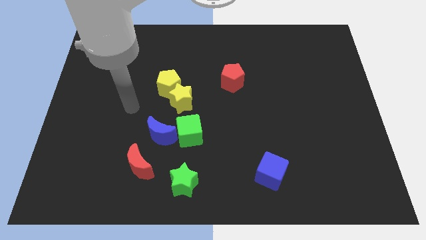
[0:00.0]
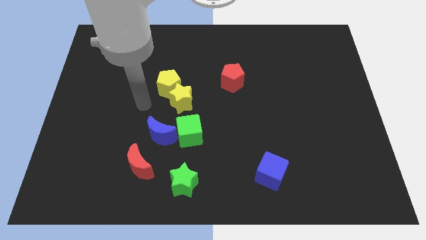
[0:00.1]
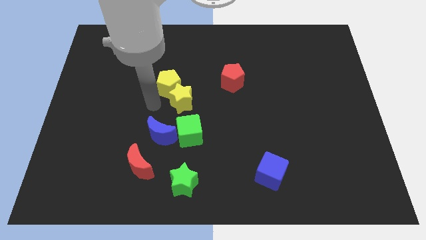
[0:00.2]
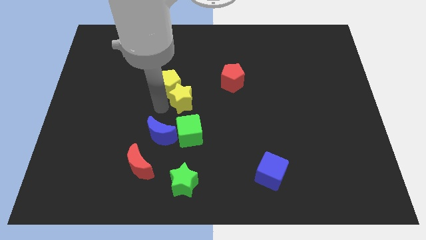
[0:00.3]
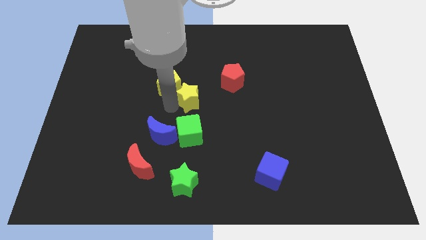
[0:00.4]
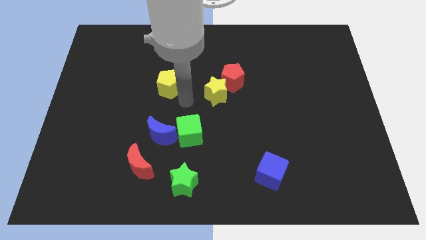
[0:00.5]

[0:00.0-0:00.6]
separate the yellow pentagon from the yellow star

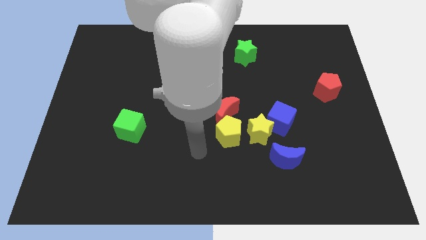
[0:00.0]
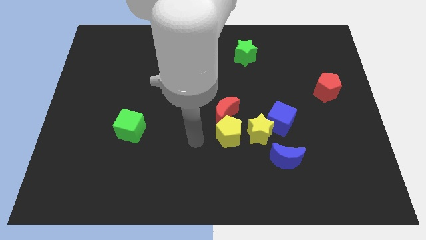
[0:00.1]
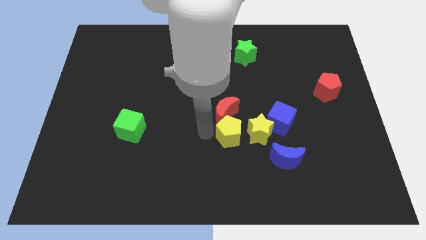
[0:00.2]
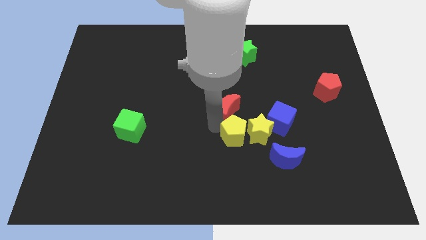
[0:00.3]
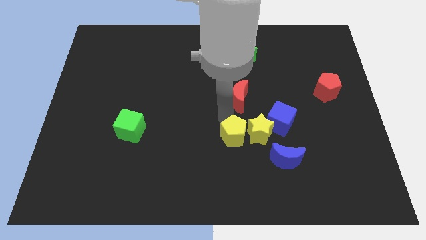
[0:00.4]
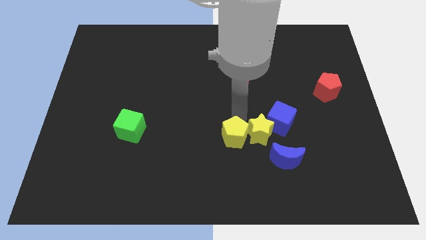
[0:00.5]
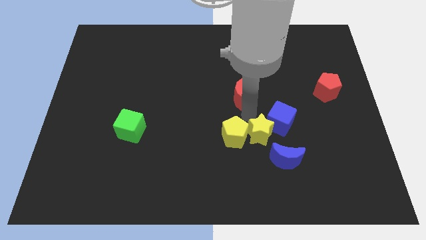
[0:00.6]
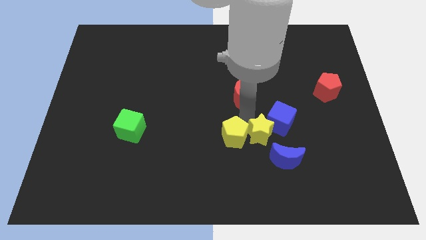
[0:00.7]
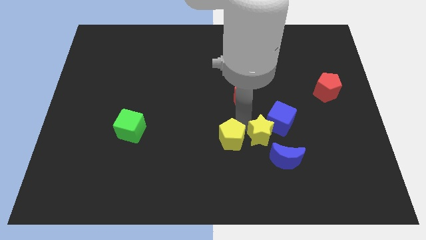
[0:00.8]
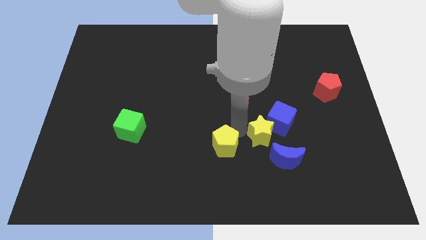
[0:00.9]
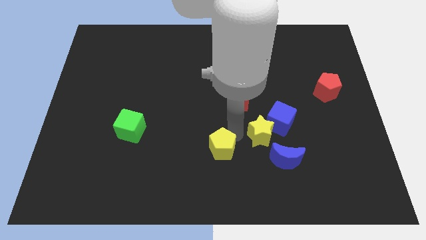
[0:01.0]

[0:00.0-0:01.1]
move the yellow pentagon away from the red moon and yellow star

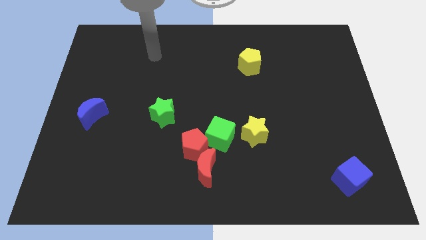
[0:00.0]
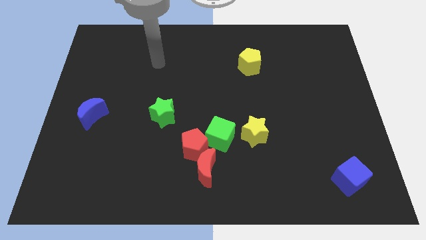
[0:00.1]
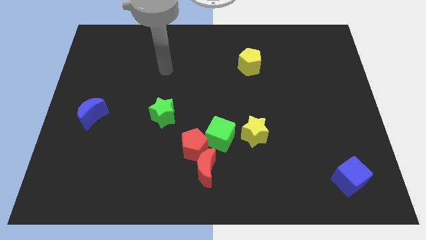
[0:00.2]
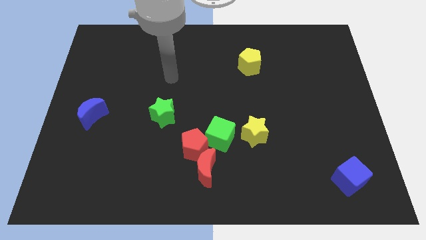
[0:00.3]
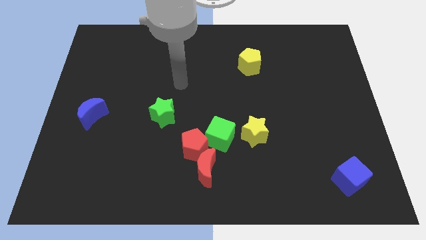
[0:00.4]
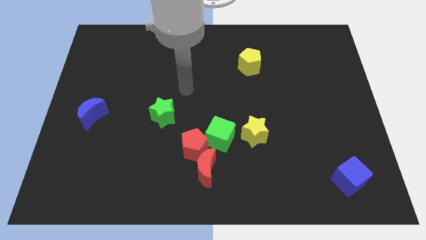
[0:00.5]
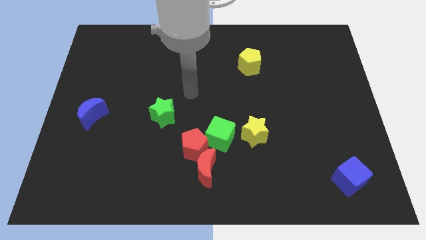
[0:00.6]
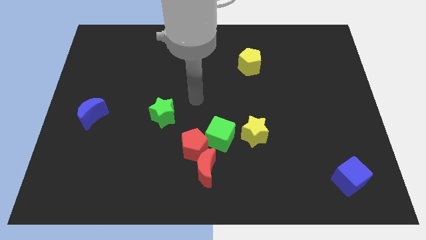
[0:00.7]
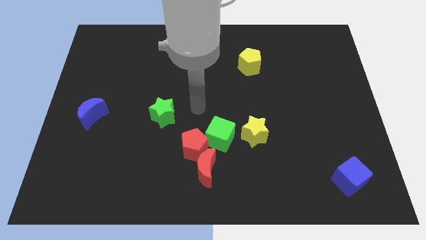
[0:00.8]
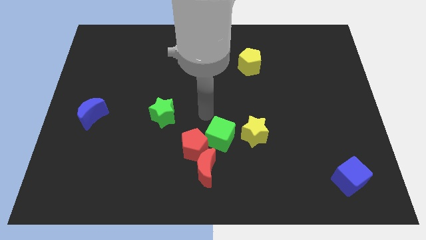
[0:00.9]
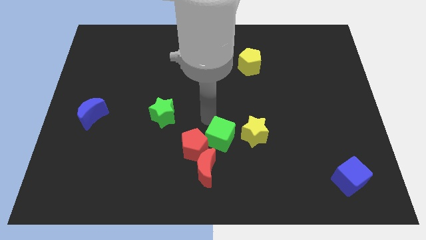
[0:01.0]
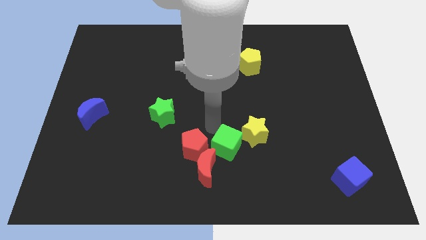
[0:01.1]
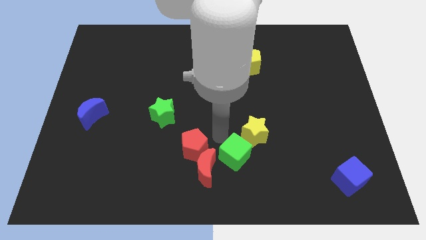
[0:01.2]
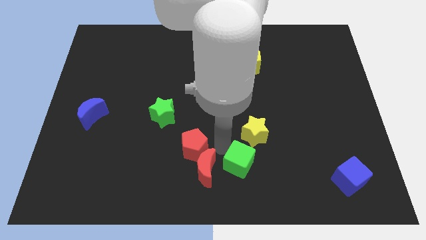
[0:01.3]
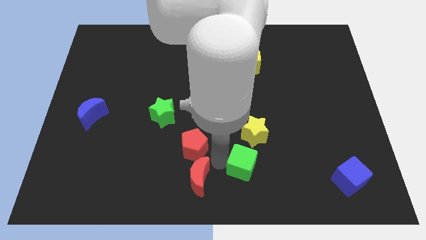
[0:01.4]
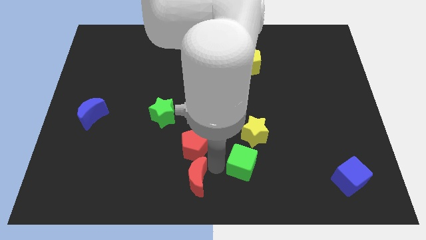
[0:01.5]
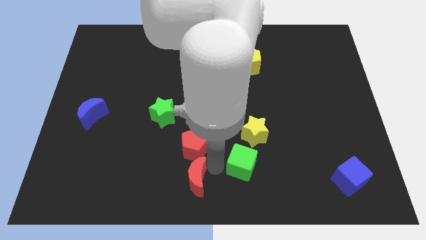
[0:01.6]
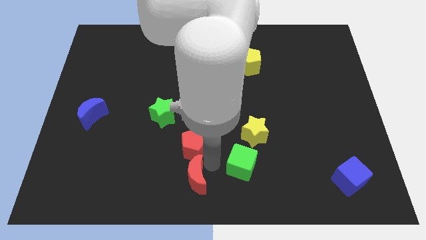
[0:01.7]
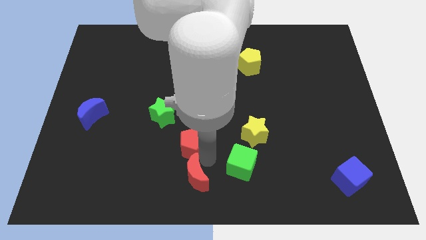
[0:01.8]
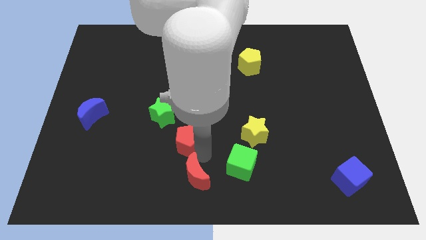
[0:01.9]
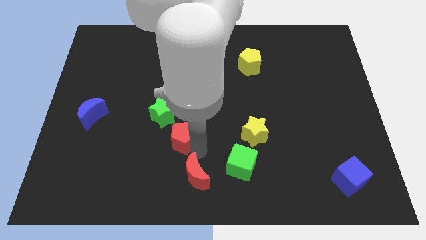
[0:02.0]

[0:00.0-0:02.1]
pull the red pentagon apart from the red moon and green cube

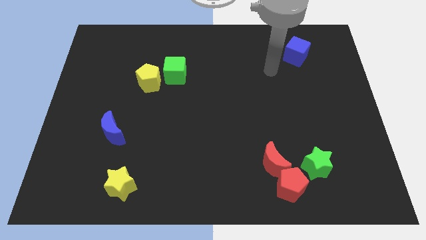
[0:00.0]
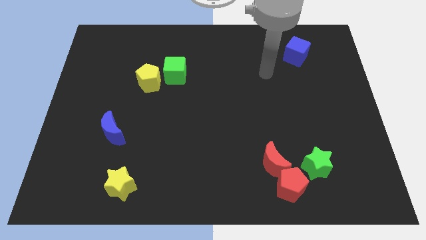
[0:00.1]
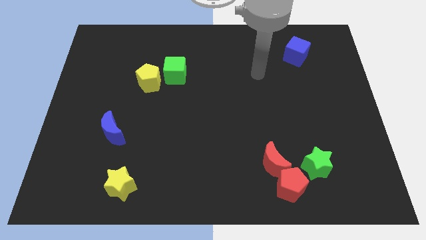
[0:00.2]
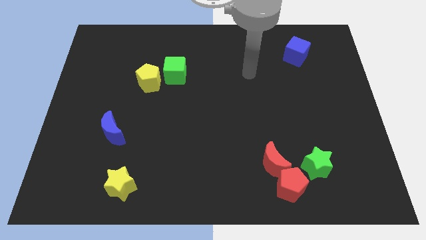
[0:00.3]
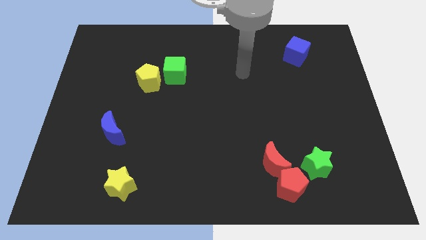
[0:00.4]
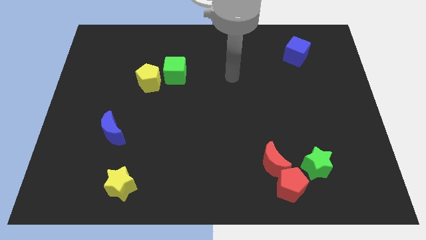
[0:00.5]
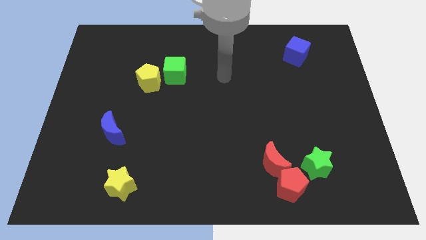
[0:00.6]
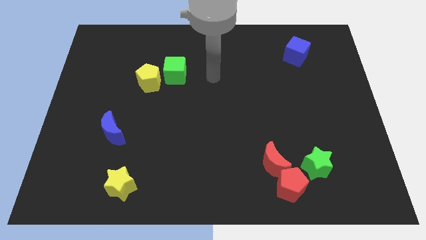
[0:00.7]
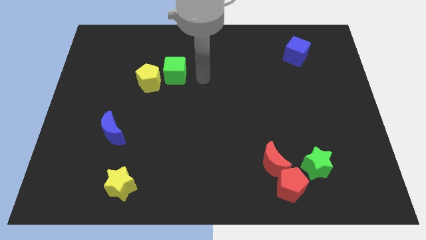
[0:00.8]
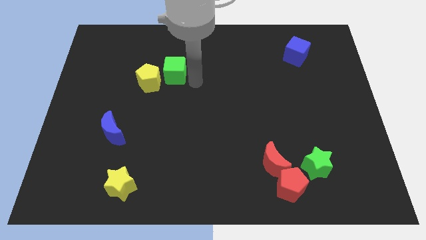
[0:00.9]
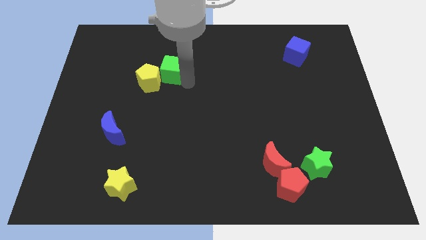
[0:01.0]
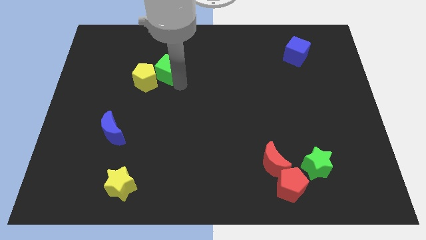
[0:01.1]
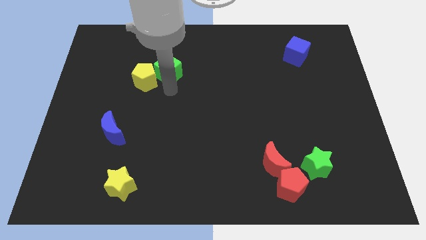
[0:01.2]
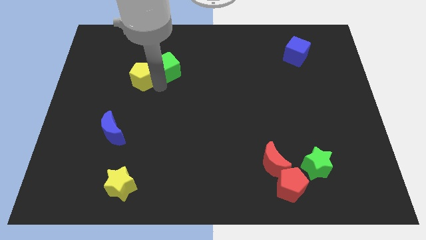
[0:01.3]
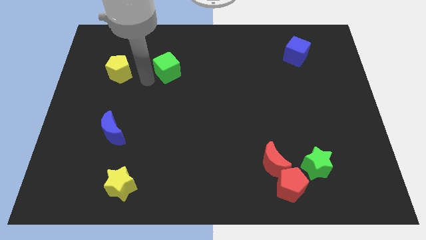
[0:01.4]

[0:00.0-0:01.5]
pull the green cube apart from the yellow pentagon

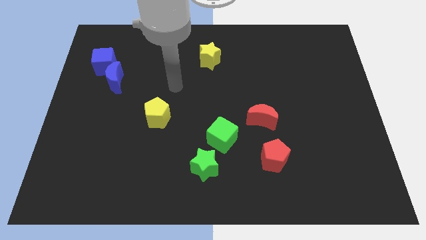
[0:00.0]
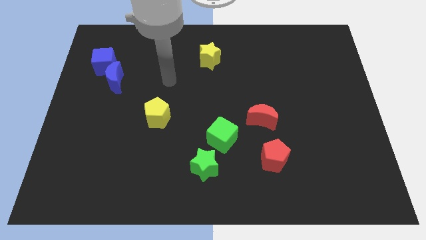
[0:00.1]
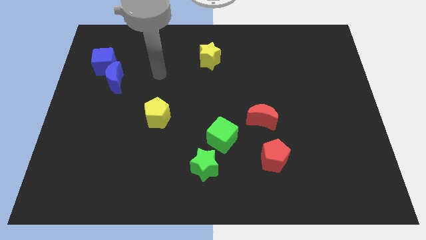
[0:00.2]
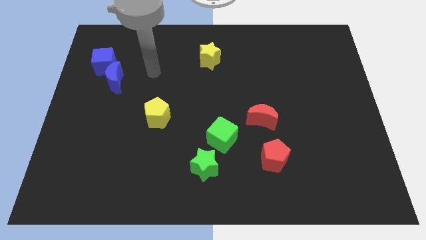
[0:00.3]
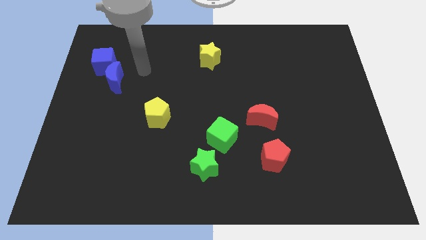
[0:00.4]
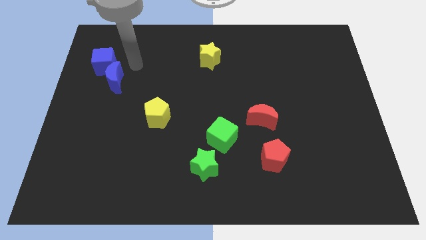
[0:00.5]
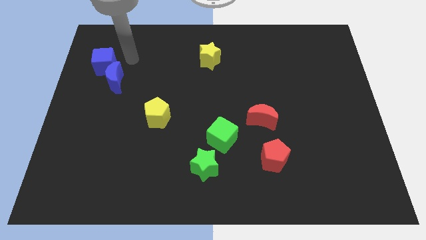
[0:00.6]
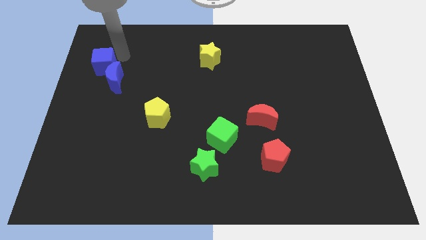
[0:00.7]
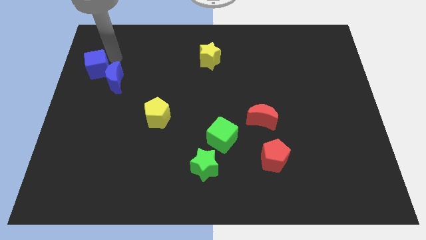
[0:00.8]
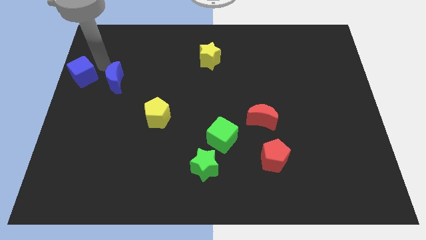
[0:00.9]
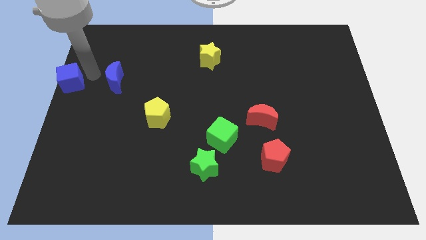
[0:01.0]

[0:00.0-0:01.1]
pull the blue moon apart from the blue cube

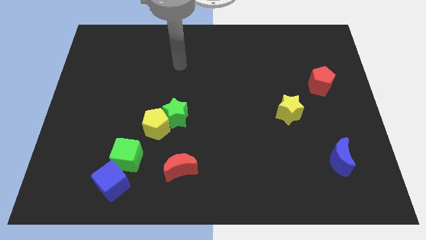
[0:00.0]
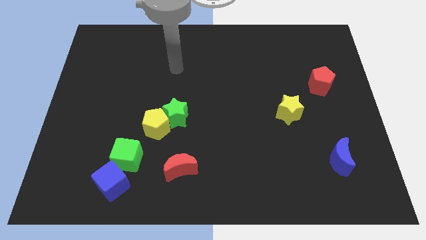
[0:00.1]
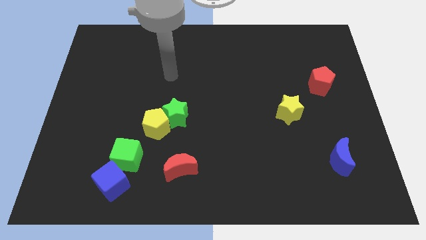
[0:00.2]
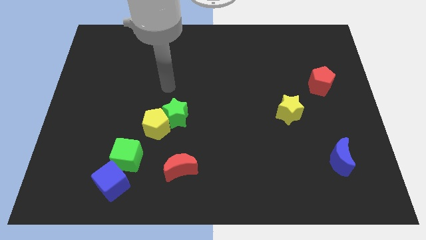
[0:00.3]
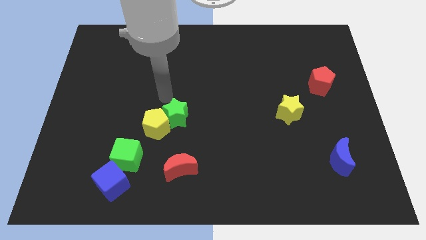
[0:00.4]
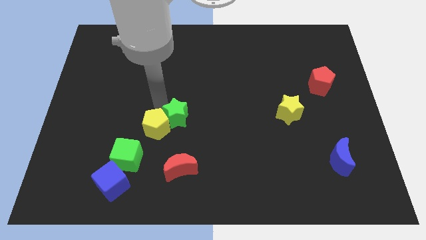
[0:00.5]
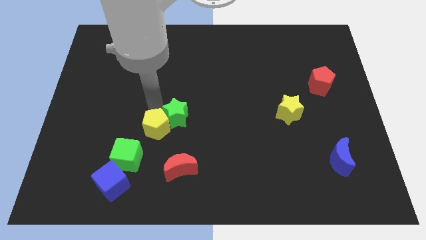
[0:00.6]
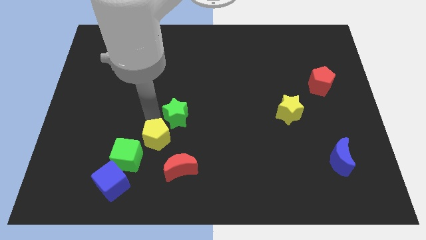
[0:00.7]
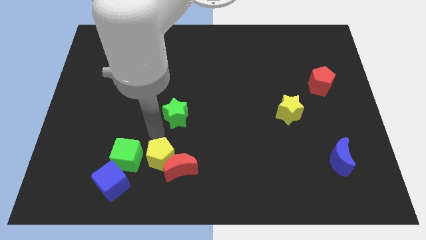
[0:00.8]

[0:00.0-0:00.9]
move the green star away from the yellow pentagon

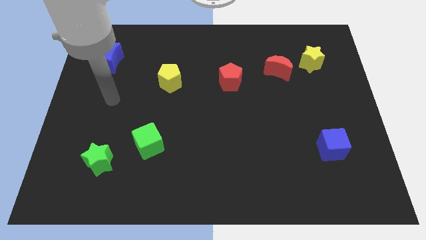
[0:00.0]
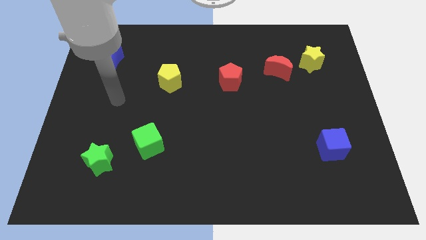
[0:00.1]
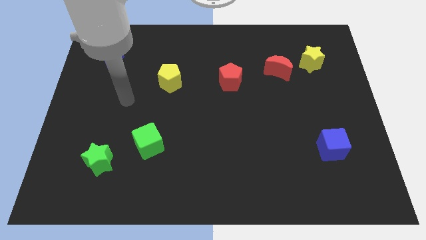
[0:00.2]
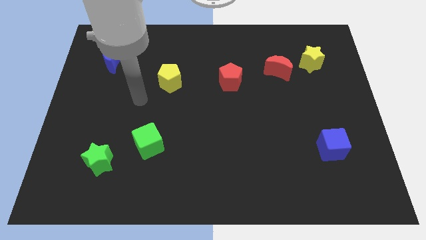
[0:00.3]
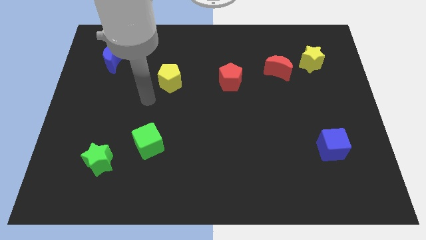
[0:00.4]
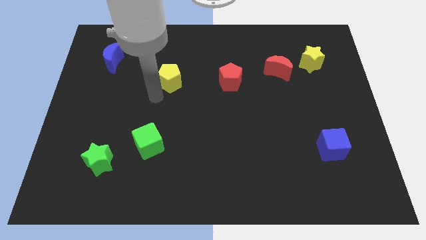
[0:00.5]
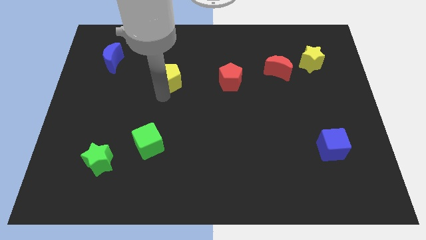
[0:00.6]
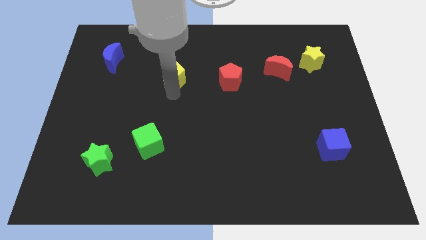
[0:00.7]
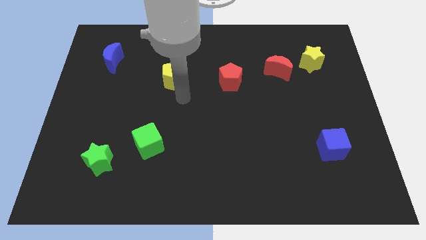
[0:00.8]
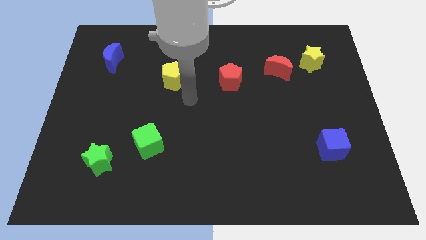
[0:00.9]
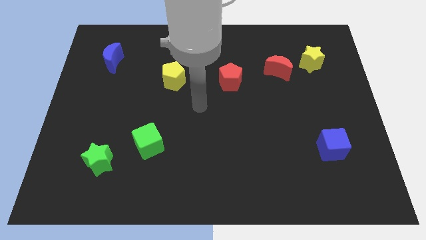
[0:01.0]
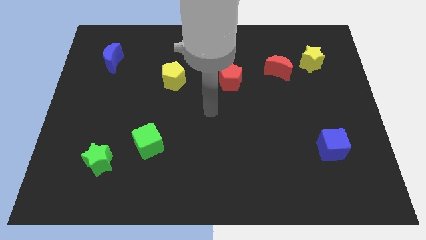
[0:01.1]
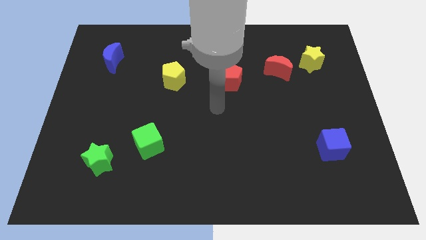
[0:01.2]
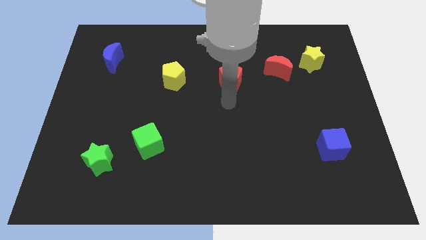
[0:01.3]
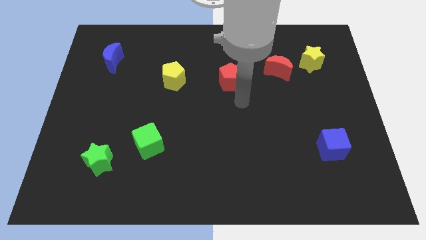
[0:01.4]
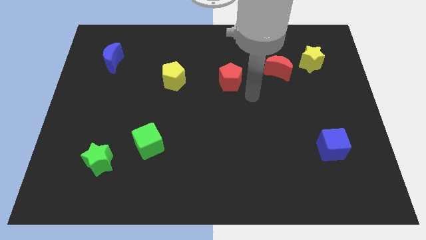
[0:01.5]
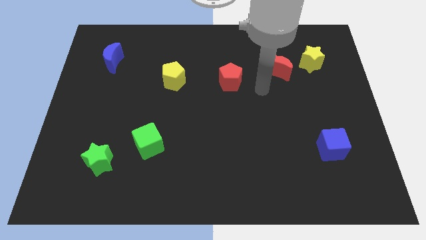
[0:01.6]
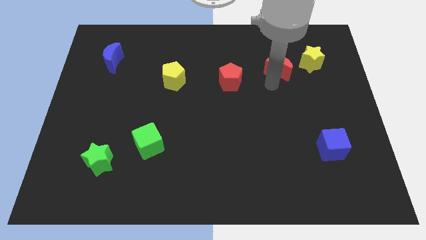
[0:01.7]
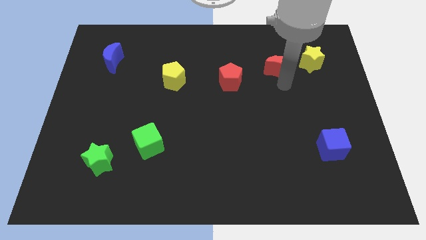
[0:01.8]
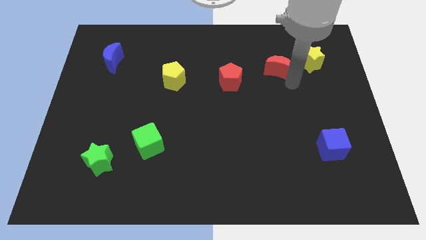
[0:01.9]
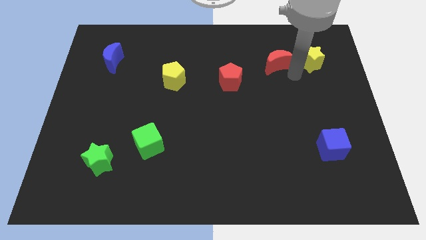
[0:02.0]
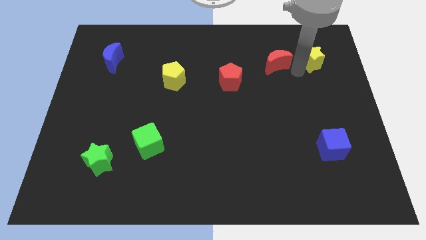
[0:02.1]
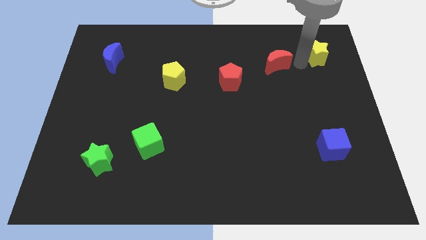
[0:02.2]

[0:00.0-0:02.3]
separate the red moon from the yellow star
